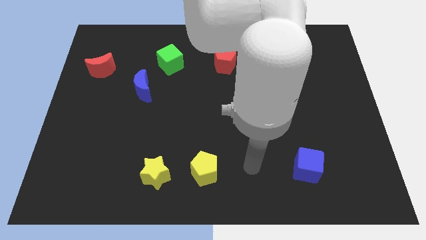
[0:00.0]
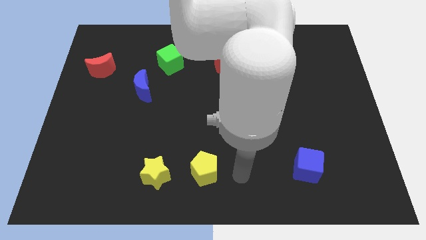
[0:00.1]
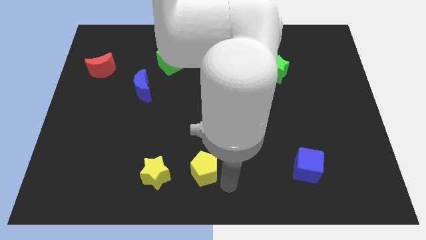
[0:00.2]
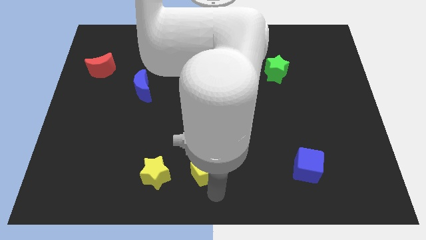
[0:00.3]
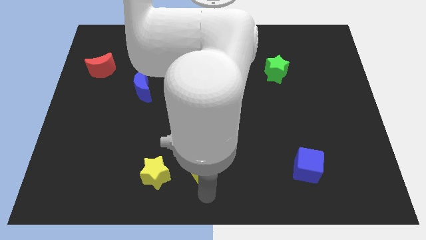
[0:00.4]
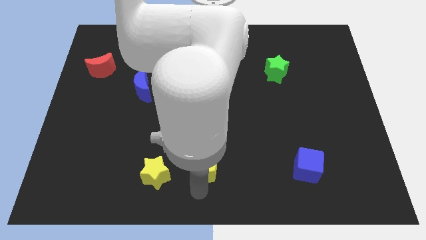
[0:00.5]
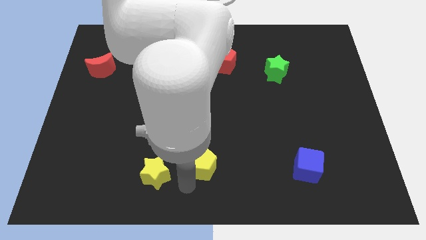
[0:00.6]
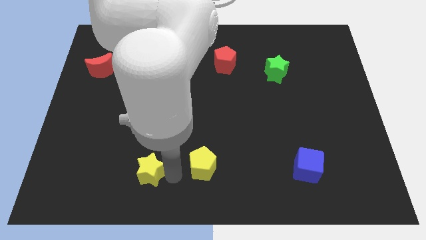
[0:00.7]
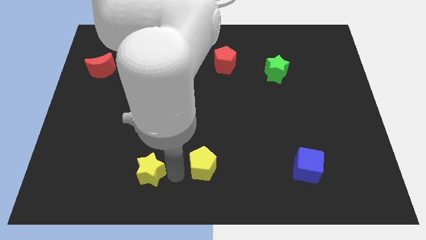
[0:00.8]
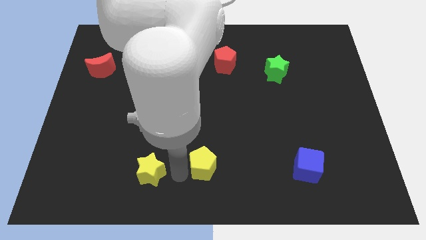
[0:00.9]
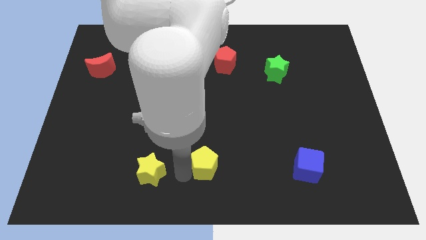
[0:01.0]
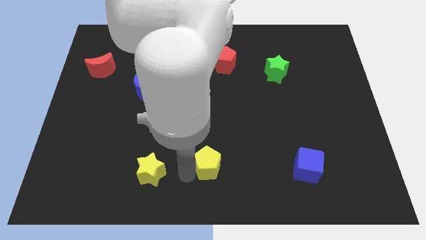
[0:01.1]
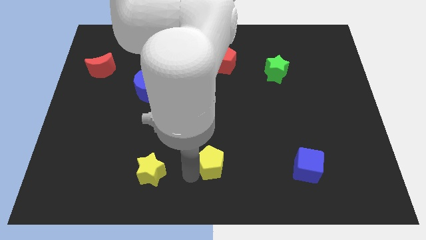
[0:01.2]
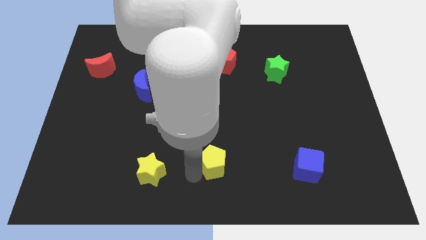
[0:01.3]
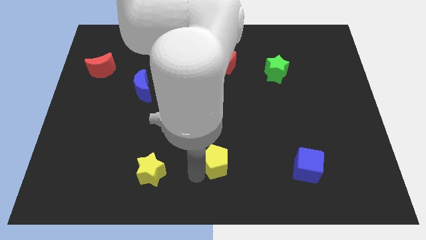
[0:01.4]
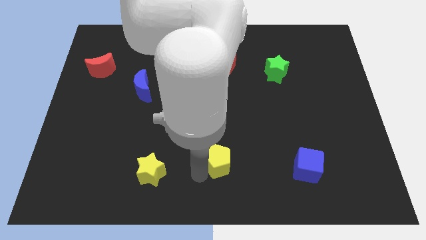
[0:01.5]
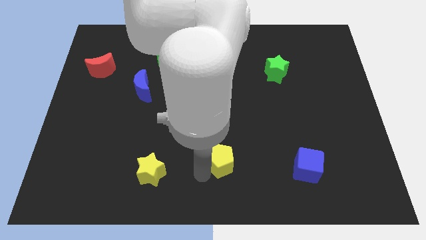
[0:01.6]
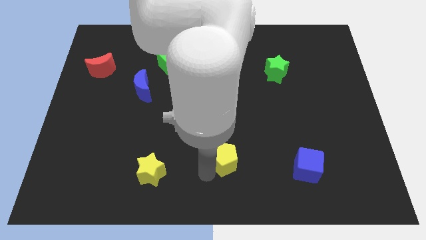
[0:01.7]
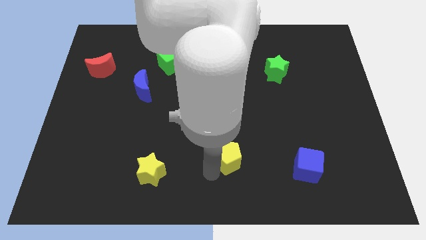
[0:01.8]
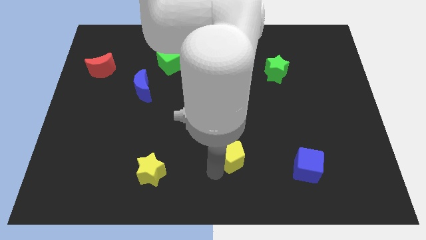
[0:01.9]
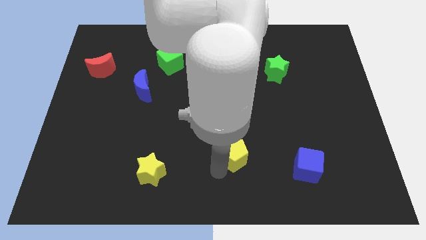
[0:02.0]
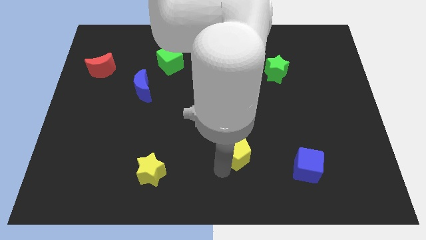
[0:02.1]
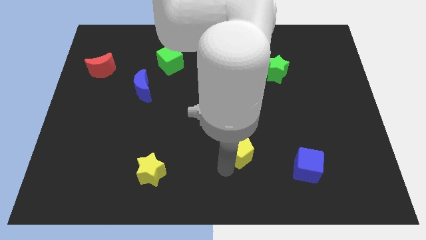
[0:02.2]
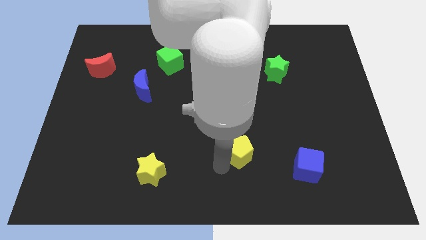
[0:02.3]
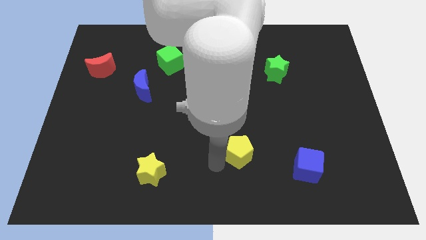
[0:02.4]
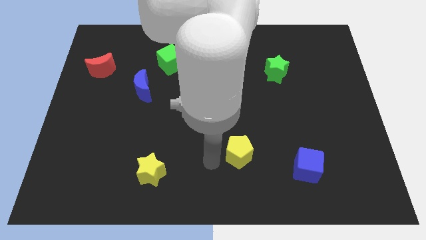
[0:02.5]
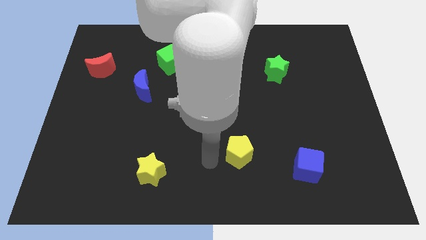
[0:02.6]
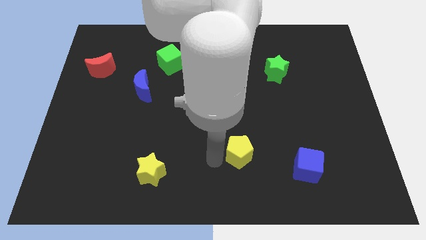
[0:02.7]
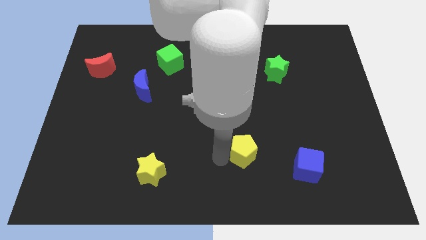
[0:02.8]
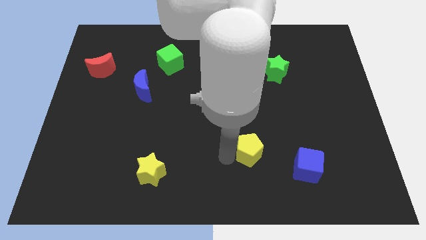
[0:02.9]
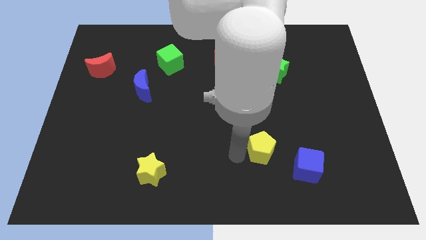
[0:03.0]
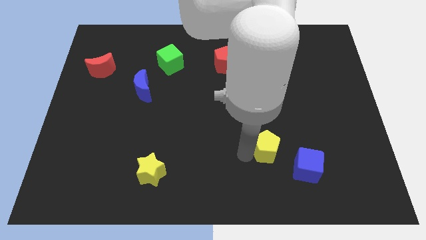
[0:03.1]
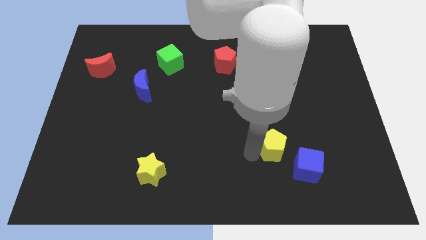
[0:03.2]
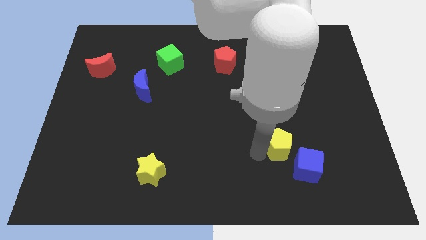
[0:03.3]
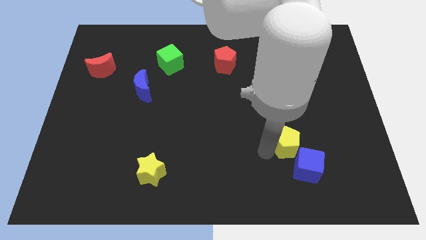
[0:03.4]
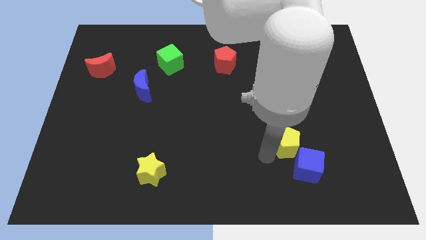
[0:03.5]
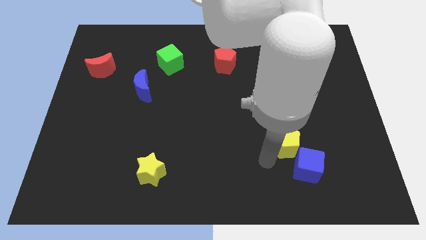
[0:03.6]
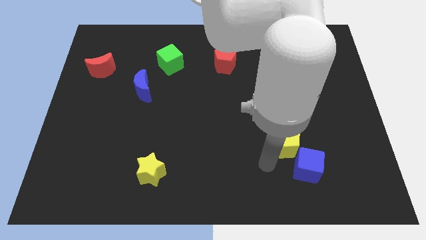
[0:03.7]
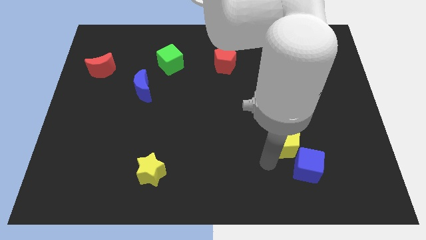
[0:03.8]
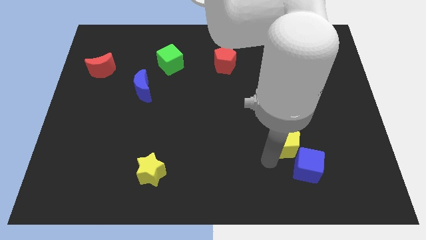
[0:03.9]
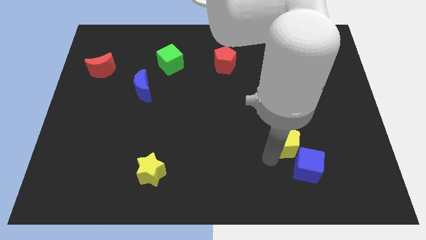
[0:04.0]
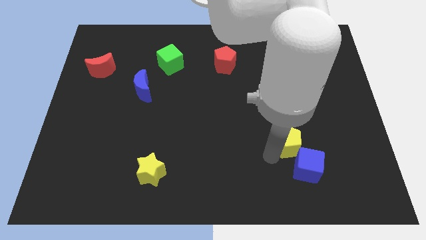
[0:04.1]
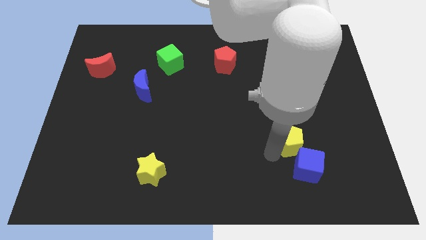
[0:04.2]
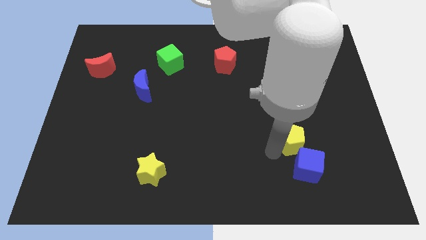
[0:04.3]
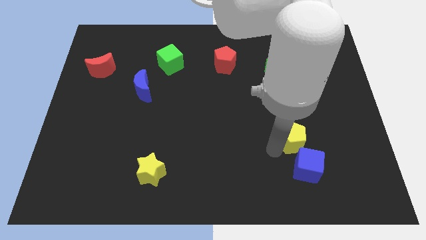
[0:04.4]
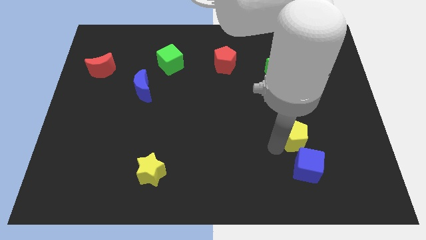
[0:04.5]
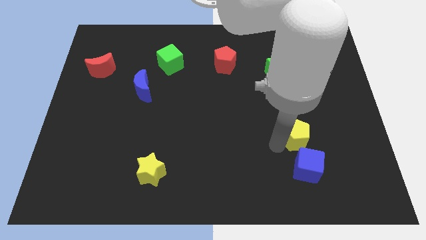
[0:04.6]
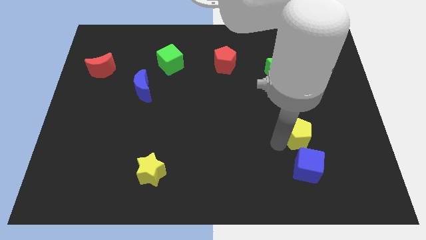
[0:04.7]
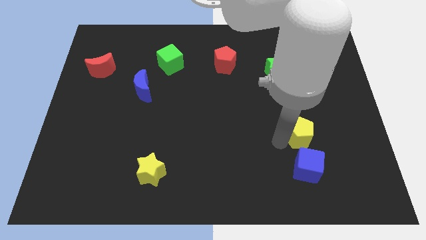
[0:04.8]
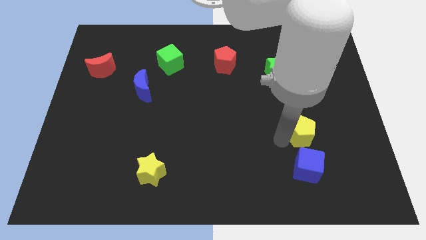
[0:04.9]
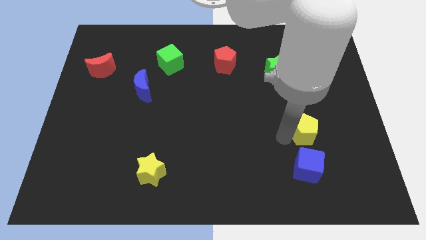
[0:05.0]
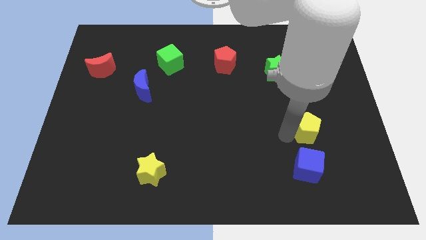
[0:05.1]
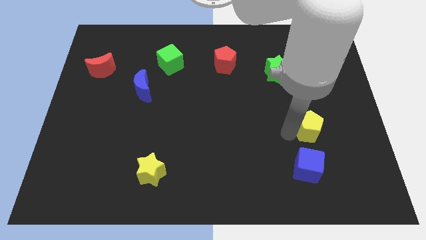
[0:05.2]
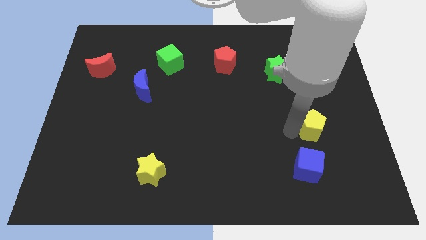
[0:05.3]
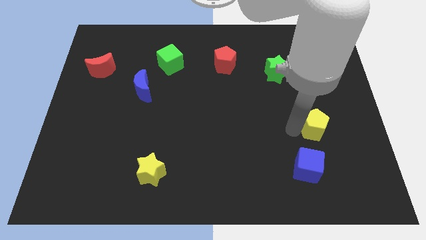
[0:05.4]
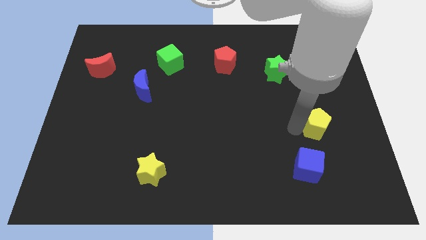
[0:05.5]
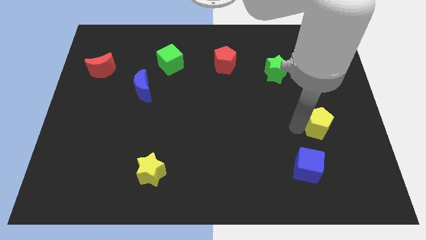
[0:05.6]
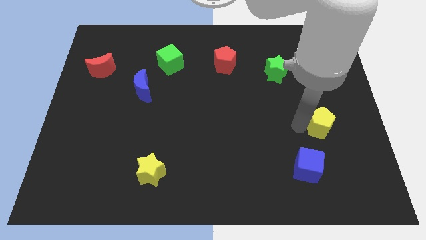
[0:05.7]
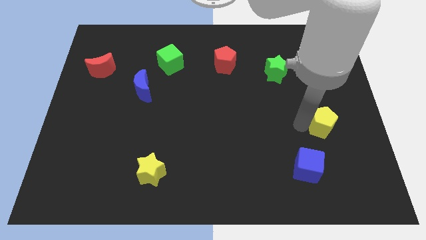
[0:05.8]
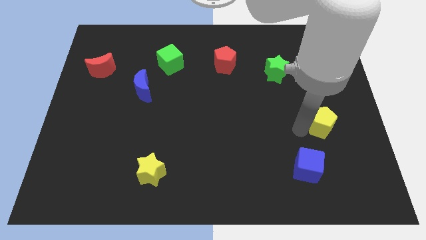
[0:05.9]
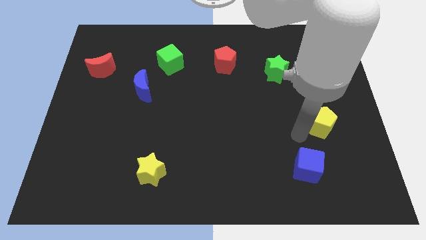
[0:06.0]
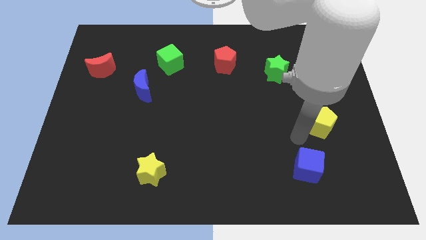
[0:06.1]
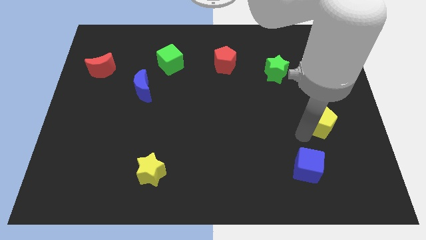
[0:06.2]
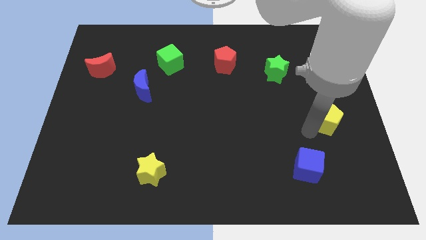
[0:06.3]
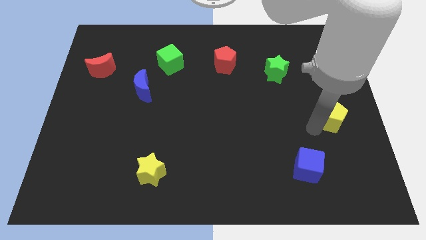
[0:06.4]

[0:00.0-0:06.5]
put the yellow pentagon to the center right
